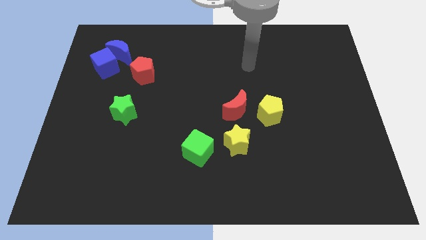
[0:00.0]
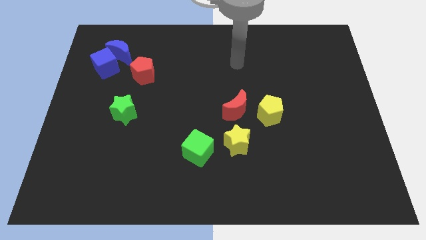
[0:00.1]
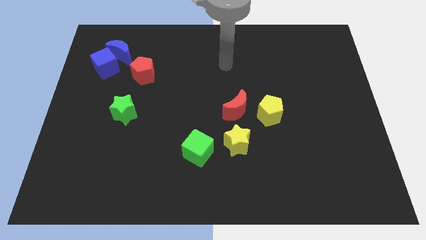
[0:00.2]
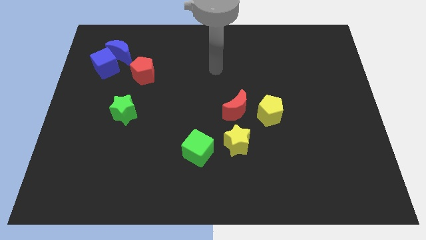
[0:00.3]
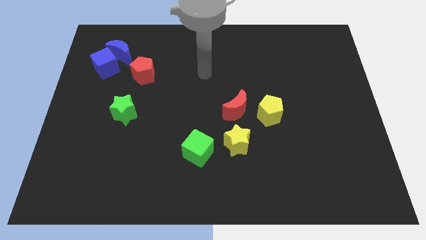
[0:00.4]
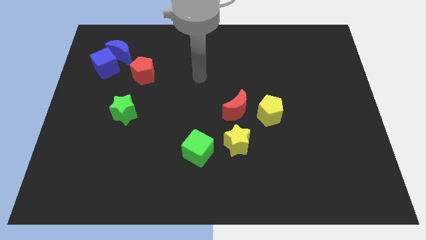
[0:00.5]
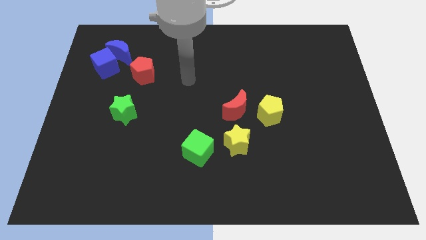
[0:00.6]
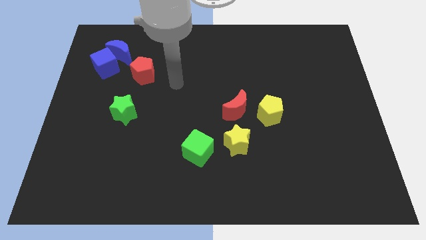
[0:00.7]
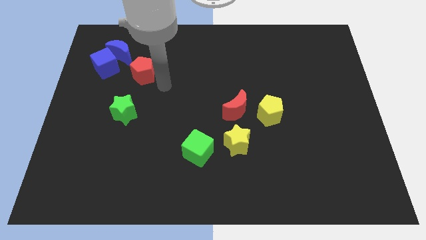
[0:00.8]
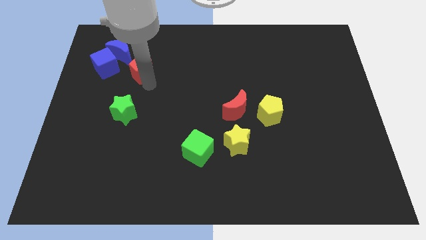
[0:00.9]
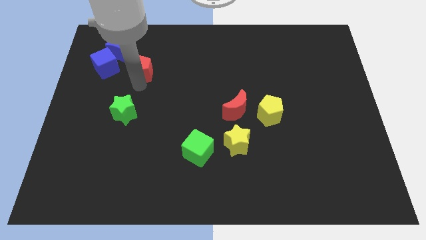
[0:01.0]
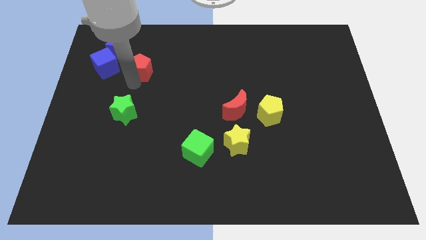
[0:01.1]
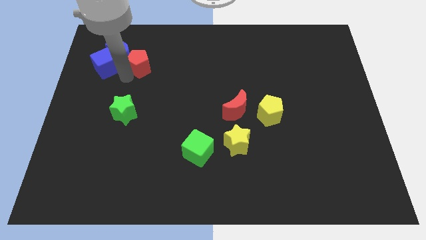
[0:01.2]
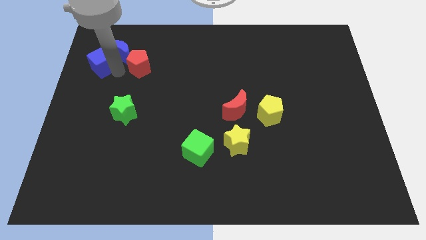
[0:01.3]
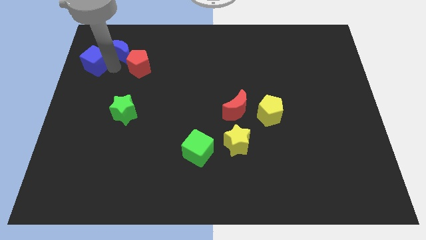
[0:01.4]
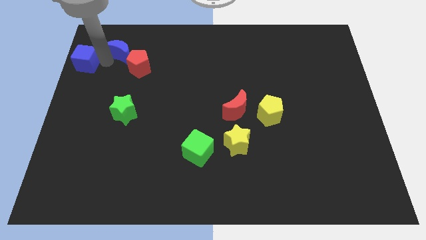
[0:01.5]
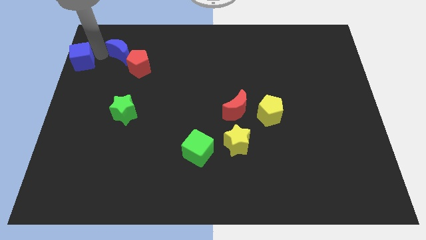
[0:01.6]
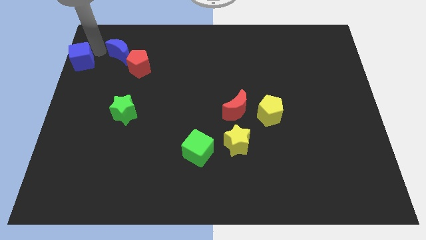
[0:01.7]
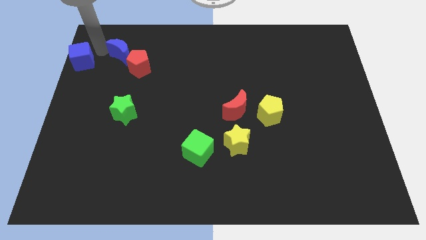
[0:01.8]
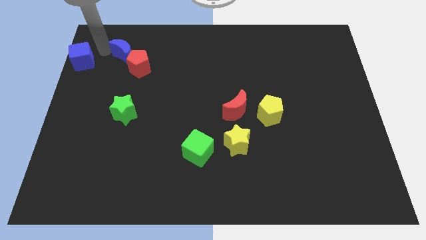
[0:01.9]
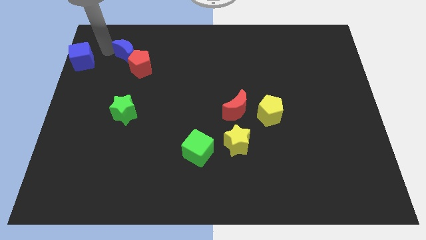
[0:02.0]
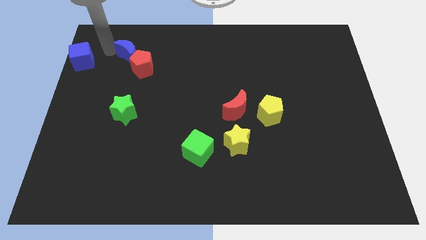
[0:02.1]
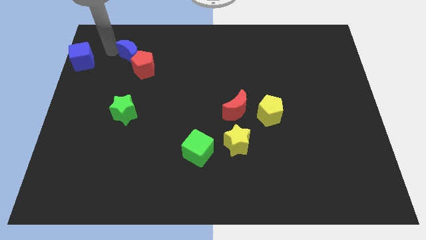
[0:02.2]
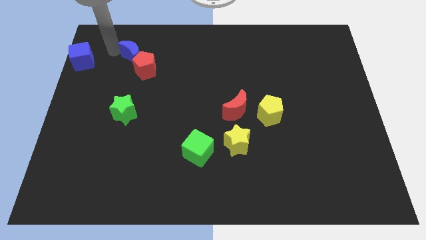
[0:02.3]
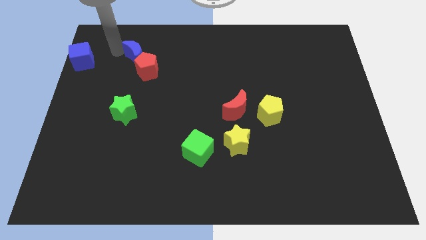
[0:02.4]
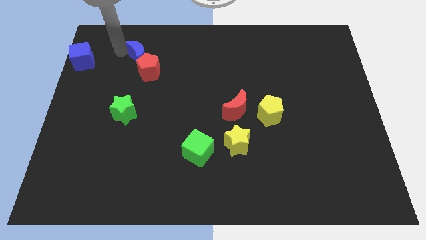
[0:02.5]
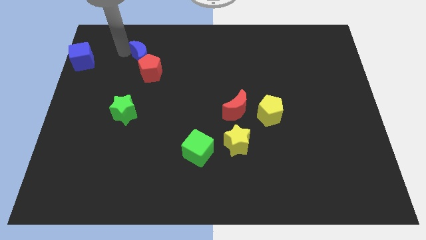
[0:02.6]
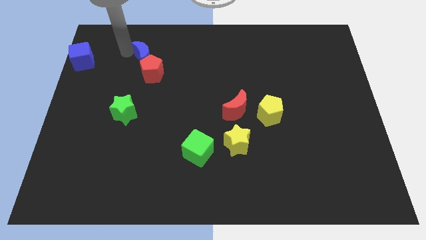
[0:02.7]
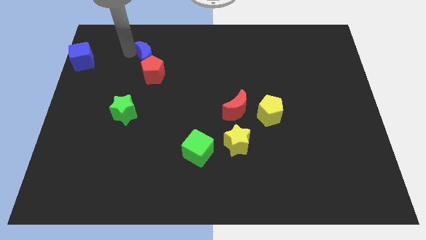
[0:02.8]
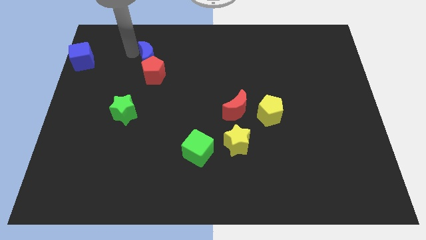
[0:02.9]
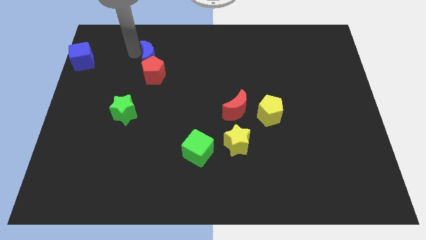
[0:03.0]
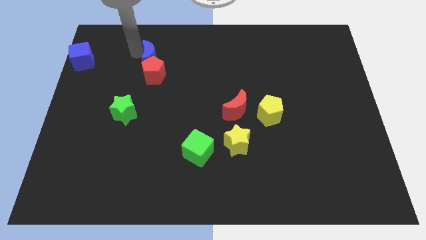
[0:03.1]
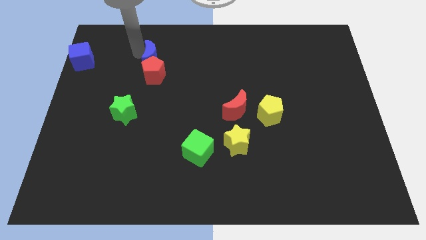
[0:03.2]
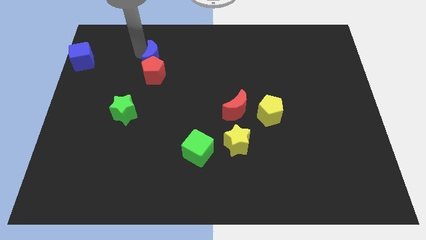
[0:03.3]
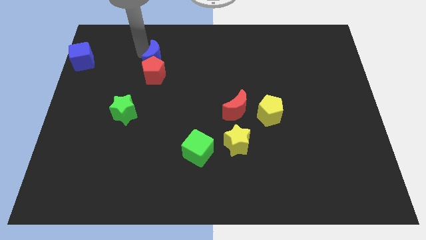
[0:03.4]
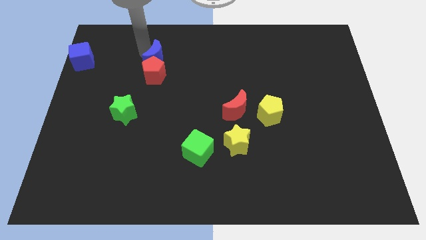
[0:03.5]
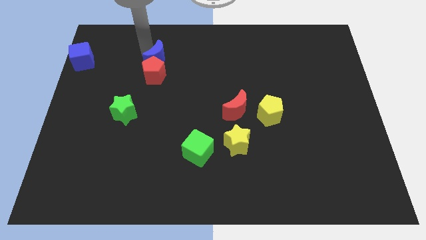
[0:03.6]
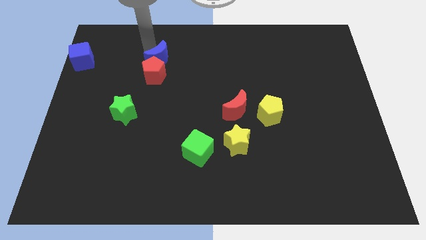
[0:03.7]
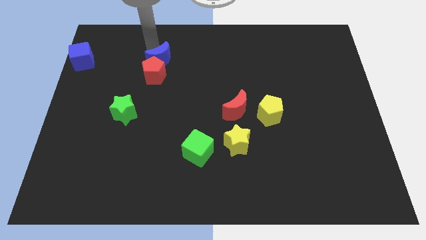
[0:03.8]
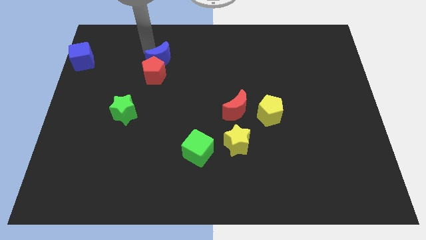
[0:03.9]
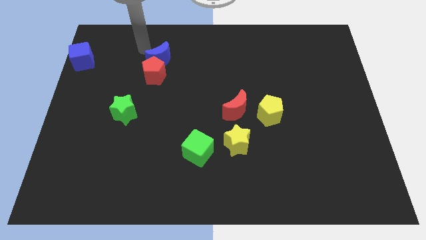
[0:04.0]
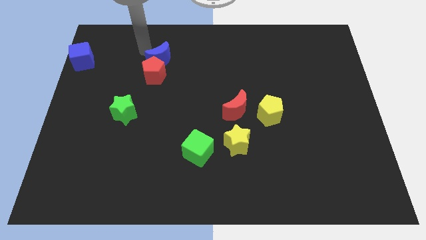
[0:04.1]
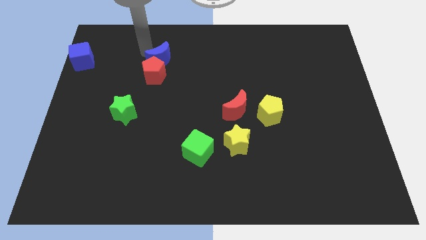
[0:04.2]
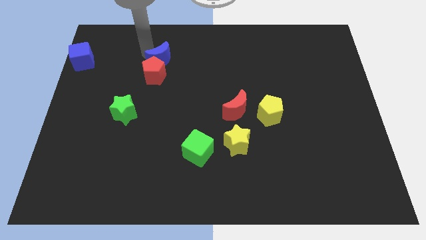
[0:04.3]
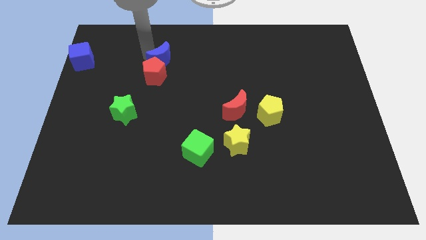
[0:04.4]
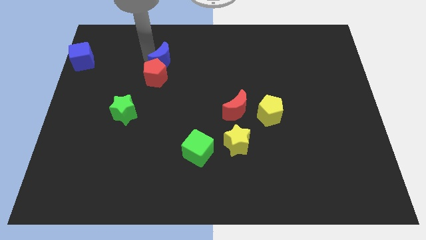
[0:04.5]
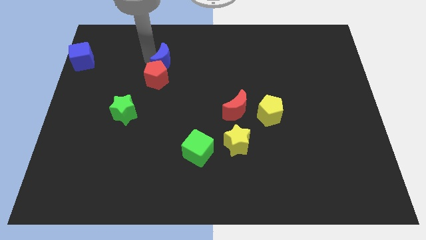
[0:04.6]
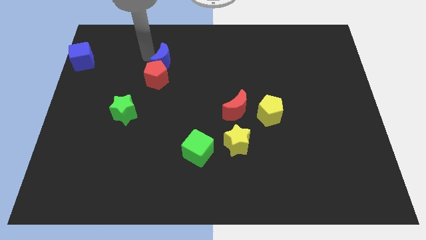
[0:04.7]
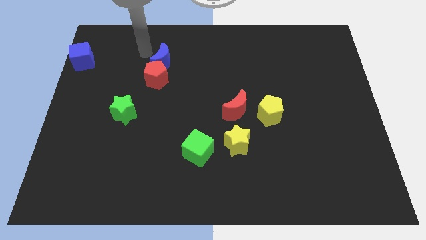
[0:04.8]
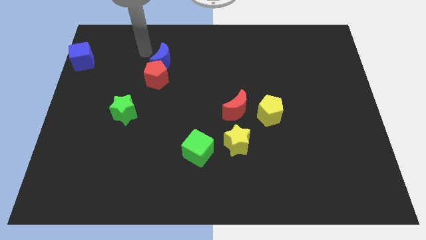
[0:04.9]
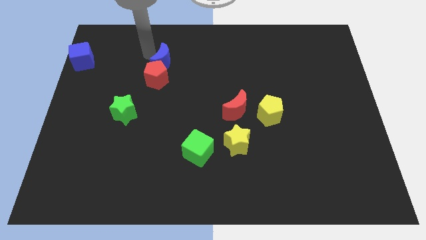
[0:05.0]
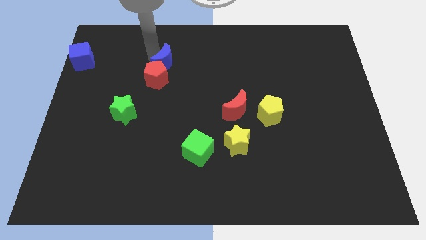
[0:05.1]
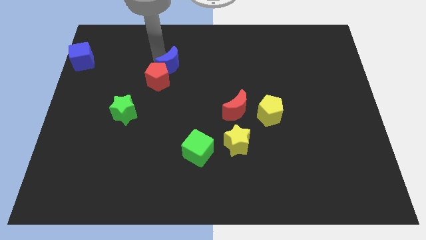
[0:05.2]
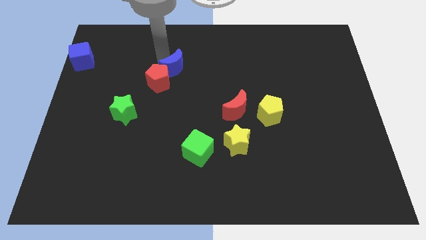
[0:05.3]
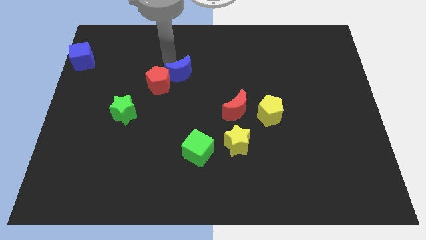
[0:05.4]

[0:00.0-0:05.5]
move the blue moon to the center

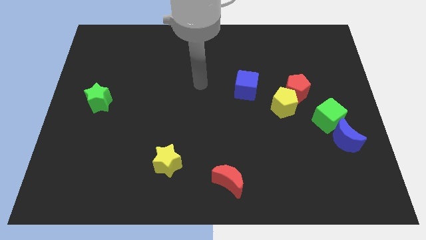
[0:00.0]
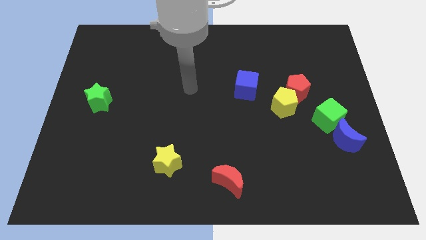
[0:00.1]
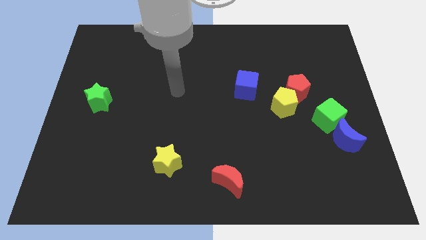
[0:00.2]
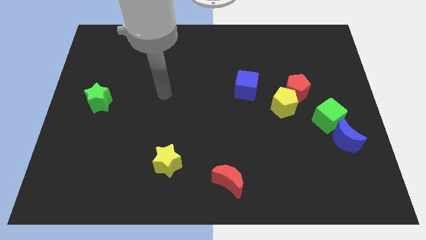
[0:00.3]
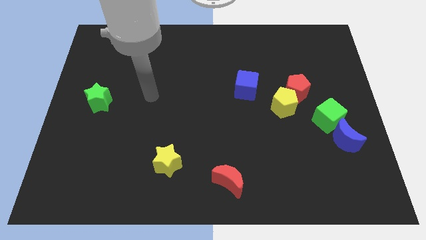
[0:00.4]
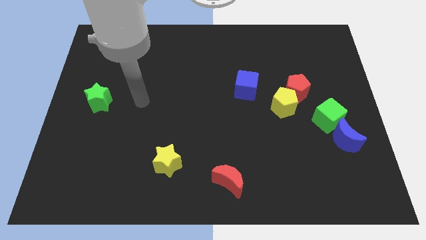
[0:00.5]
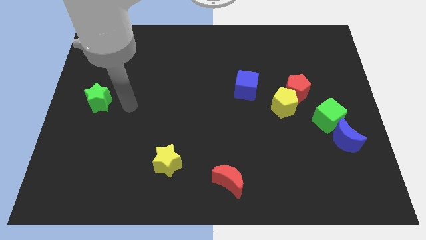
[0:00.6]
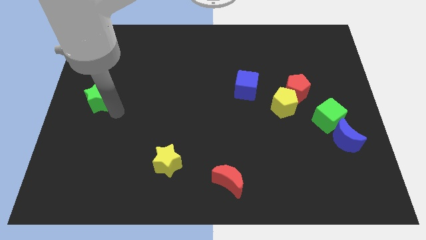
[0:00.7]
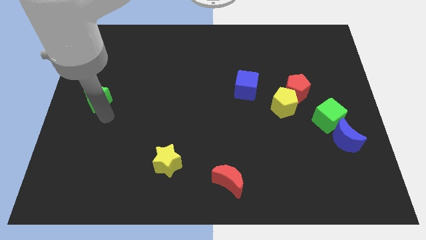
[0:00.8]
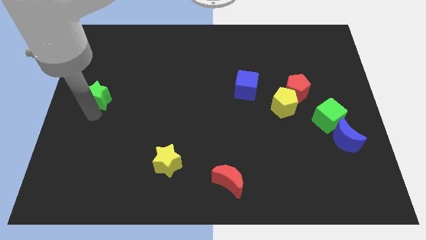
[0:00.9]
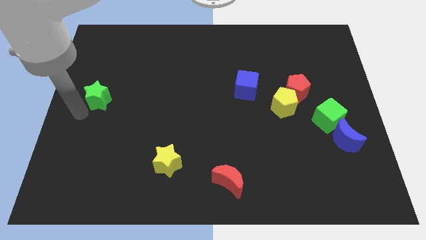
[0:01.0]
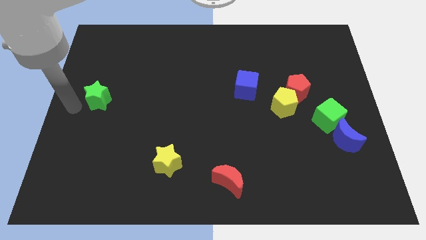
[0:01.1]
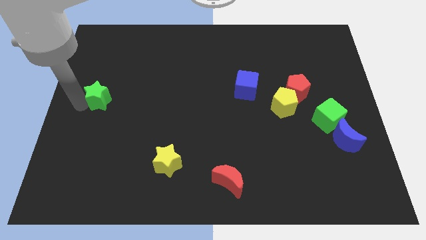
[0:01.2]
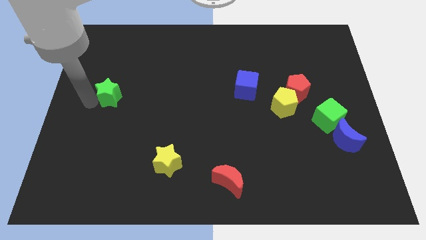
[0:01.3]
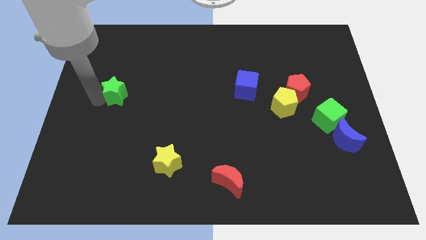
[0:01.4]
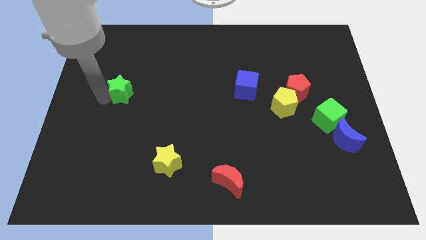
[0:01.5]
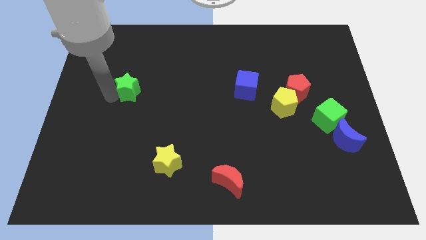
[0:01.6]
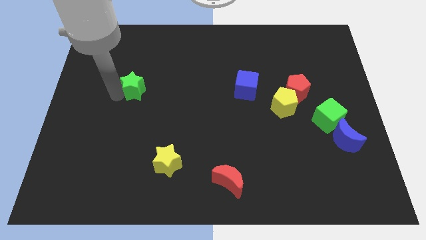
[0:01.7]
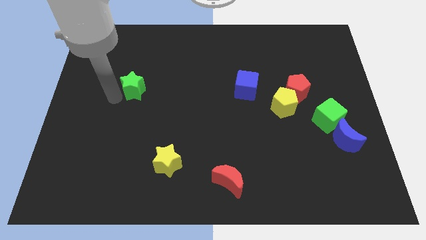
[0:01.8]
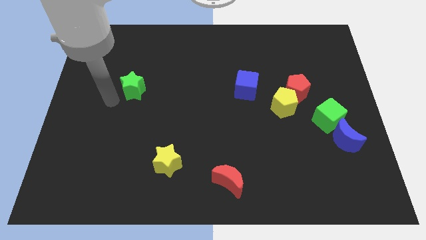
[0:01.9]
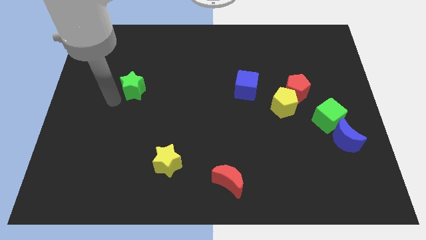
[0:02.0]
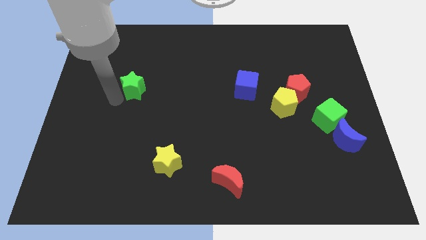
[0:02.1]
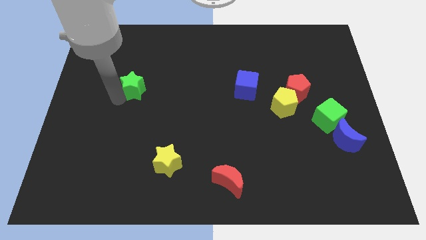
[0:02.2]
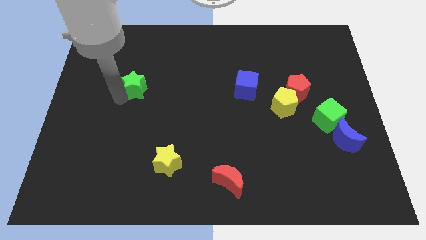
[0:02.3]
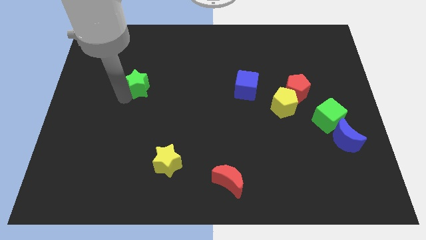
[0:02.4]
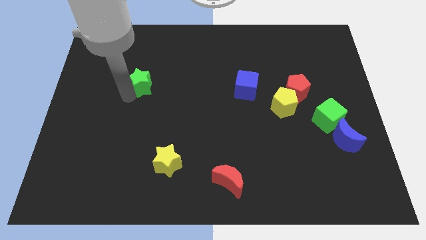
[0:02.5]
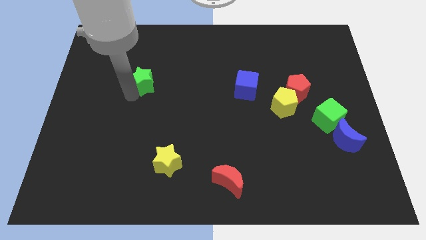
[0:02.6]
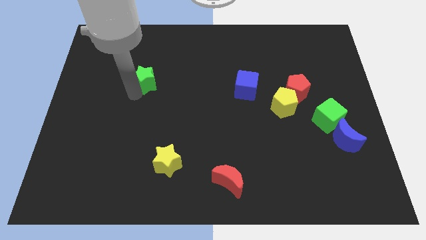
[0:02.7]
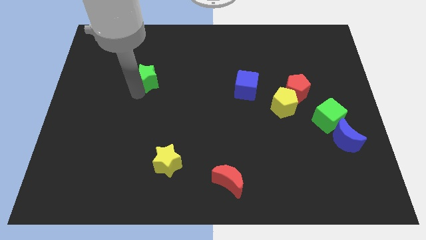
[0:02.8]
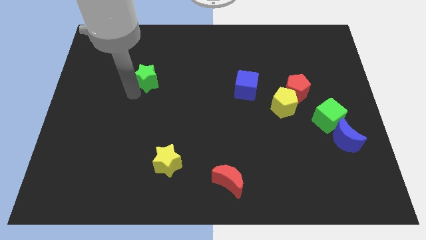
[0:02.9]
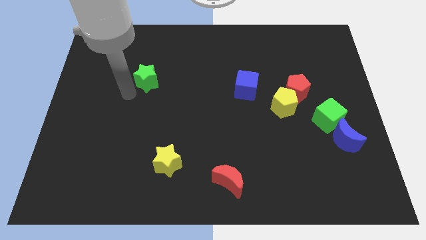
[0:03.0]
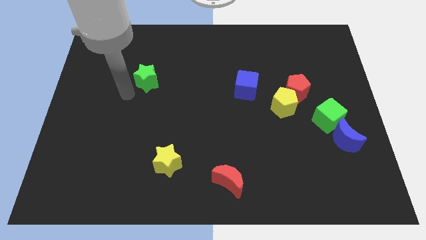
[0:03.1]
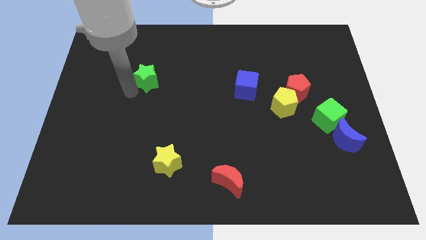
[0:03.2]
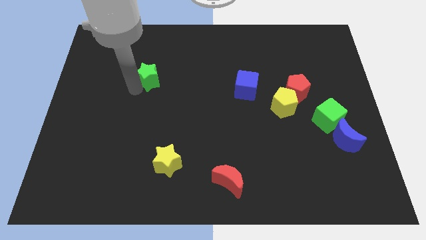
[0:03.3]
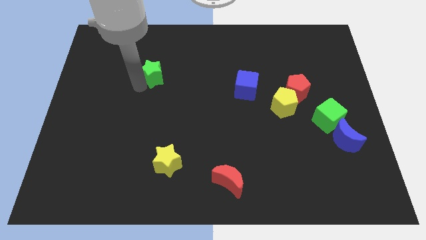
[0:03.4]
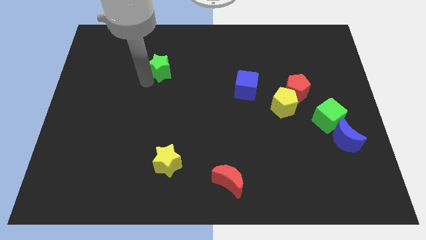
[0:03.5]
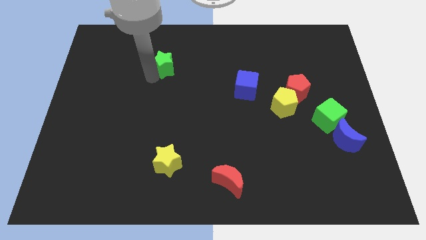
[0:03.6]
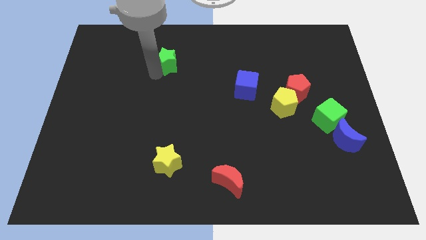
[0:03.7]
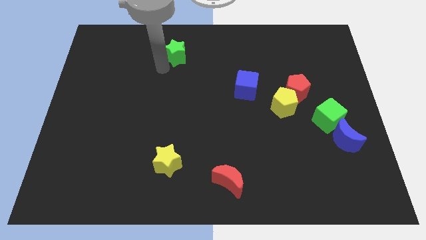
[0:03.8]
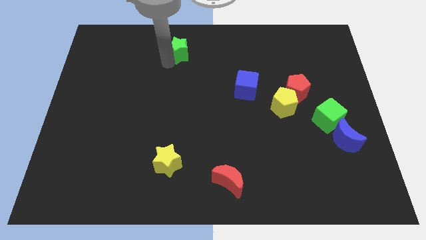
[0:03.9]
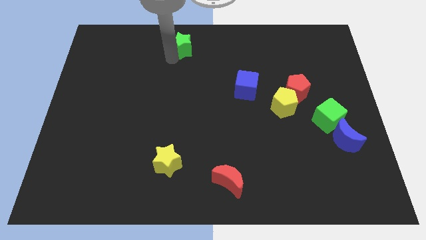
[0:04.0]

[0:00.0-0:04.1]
put the green star to the top
